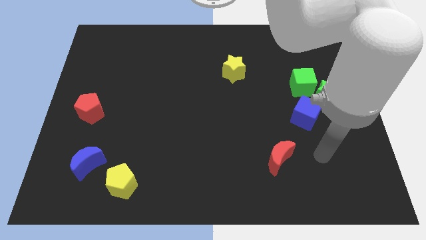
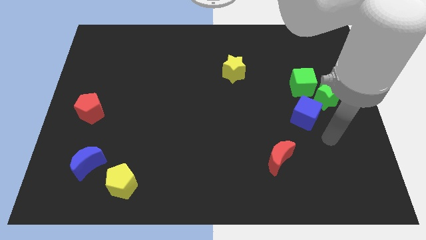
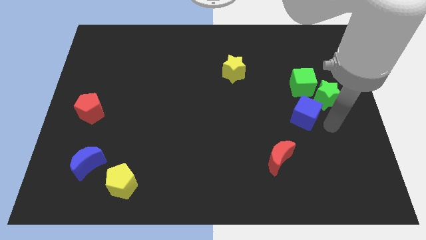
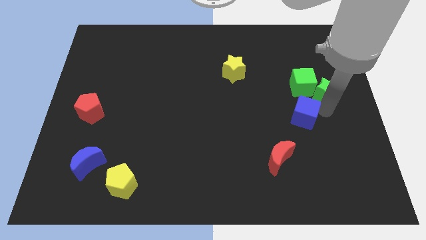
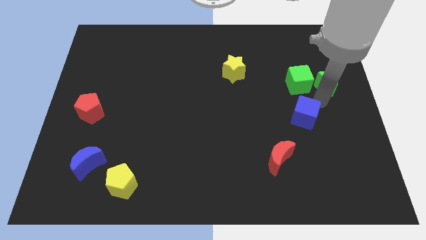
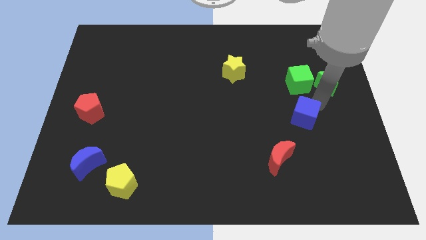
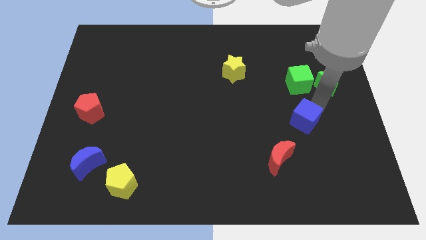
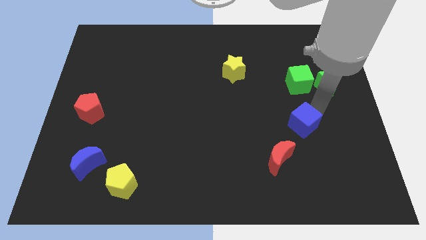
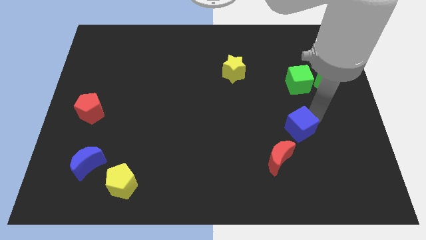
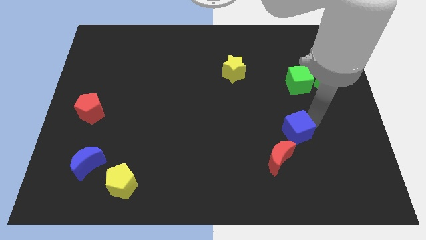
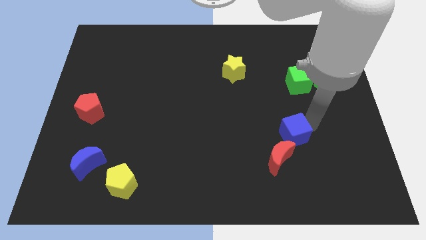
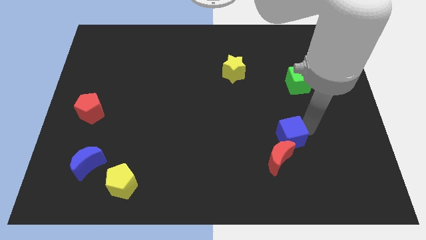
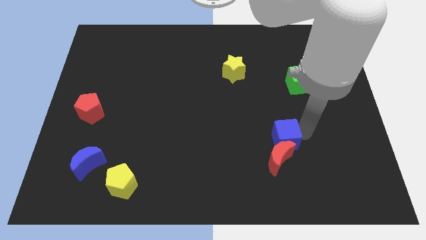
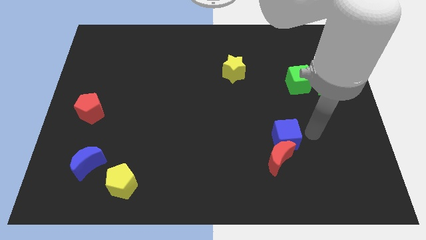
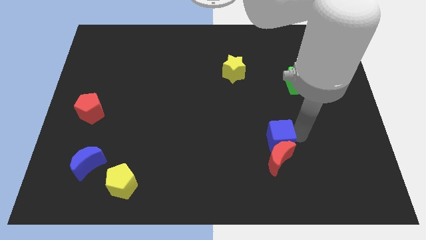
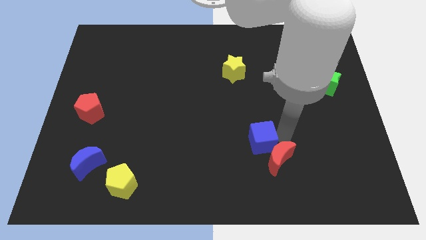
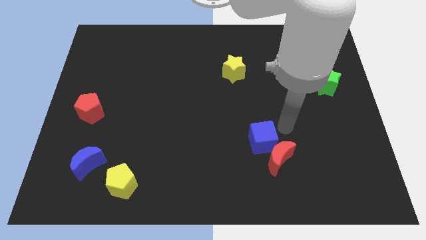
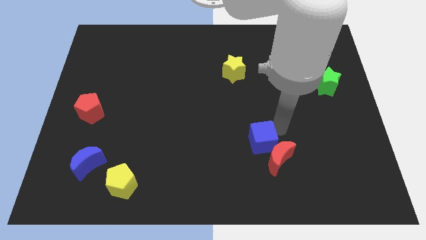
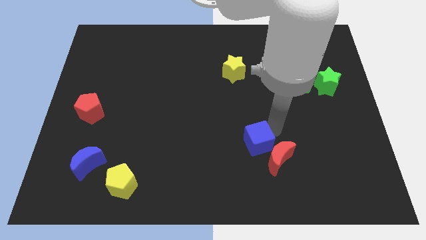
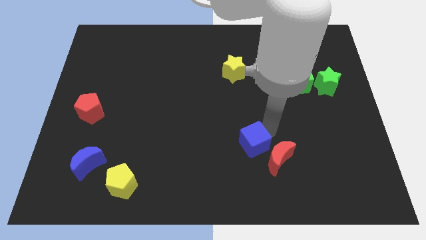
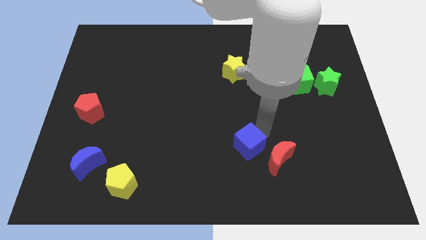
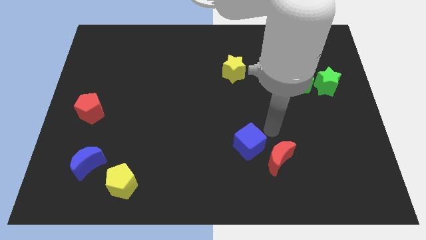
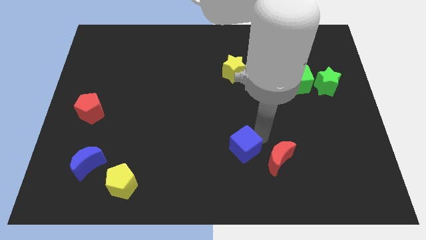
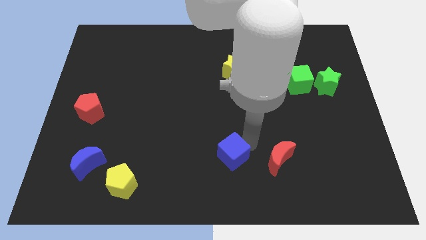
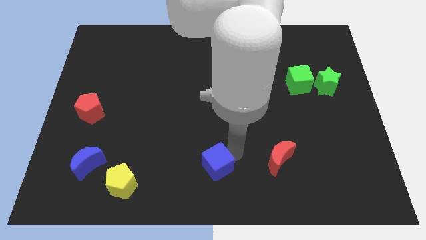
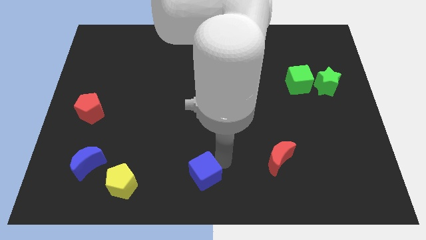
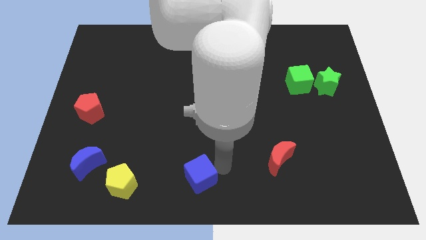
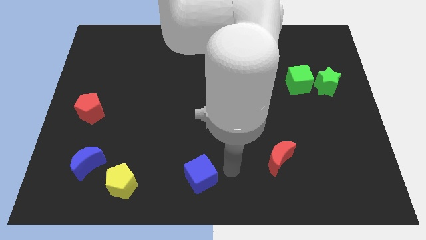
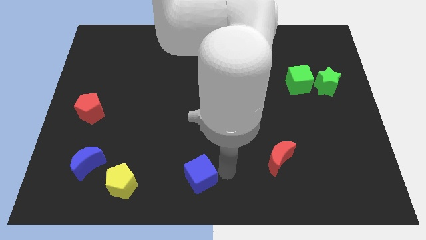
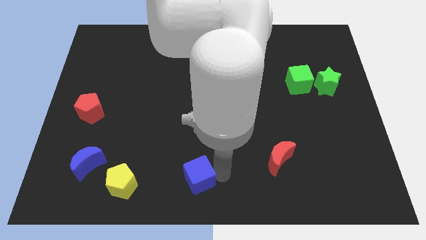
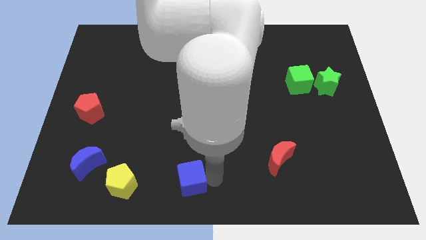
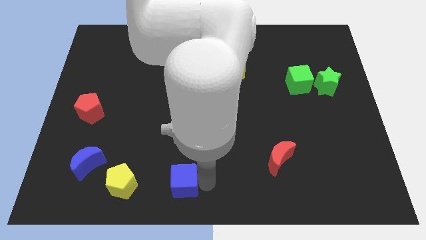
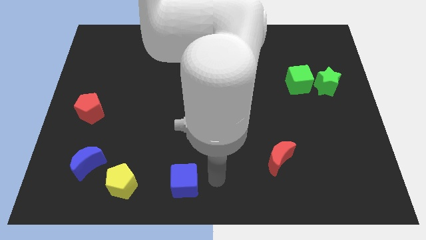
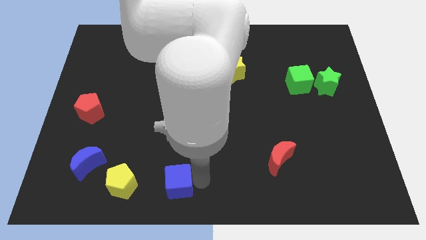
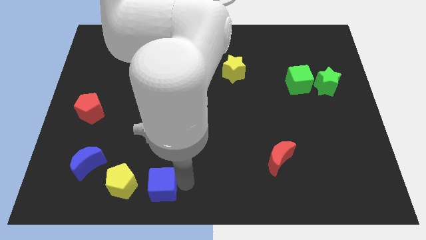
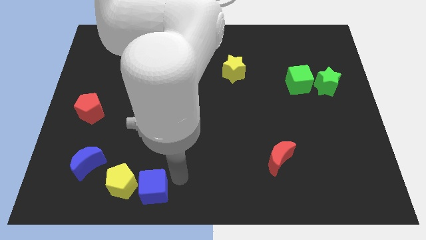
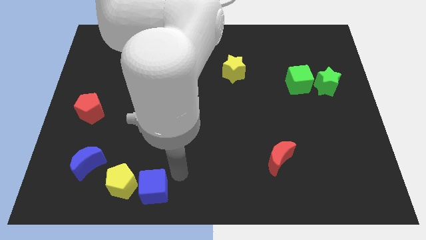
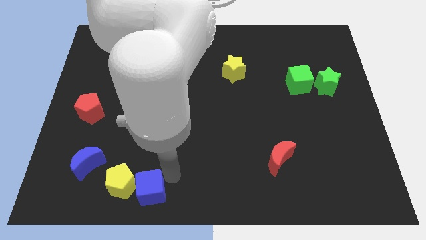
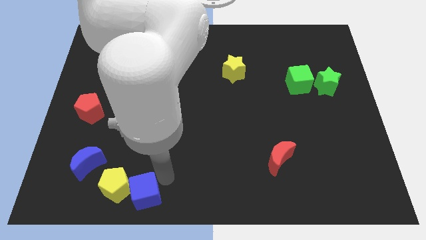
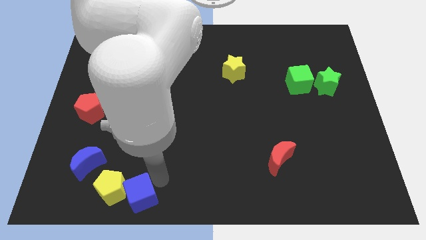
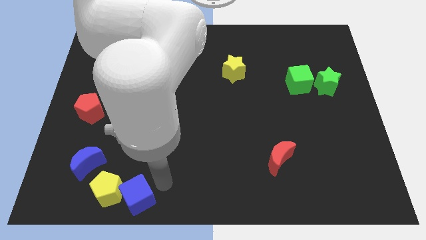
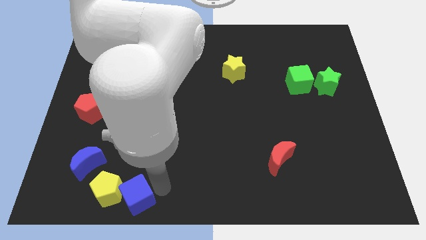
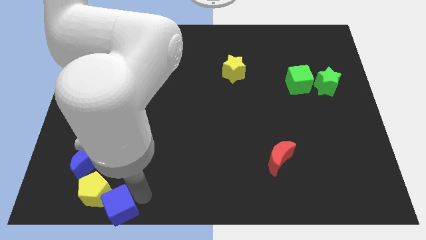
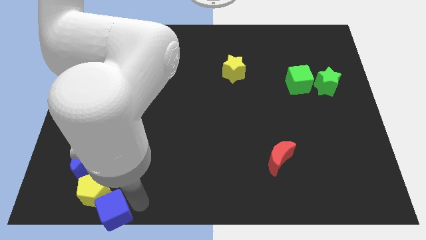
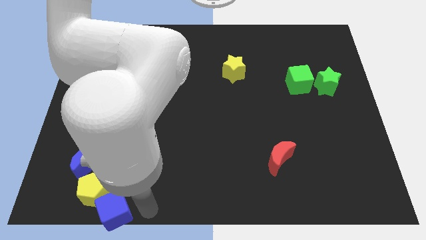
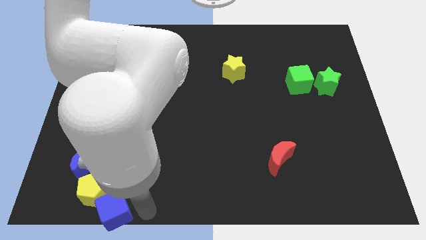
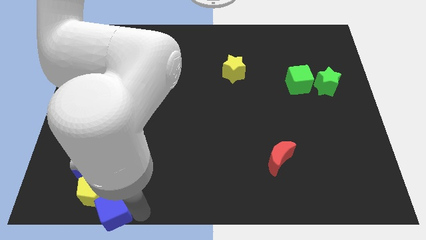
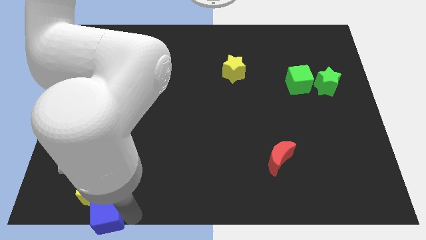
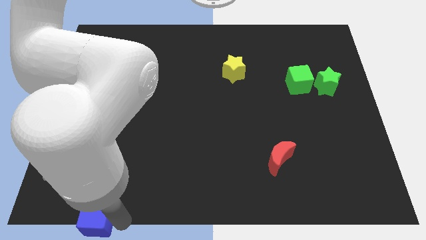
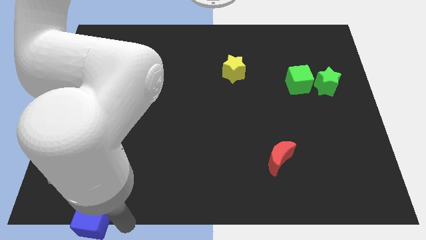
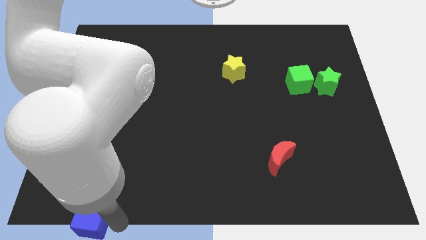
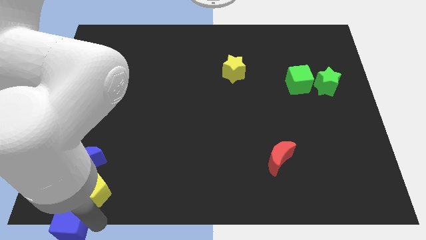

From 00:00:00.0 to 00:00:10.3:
push the blue cube to the bottom left corner

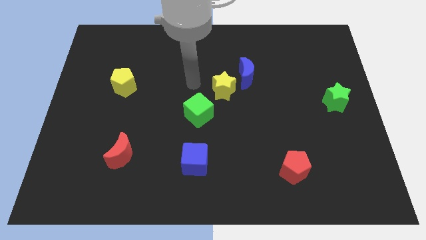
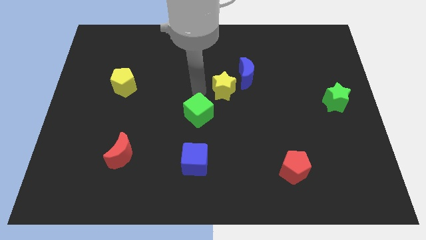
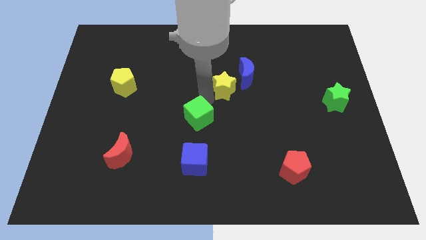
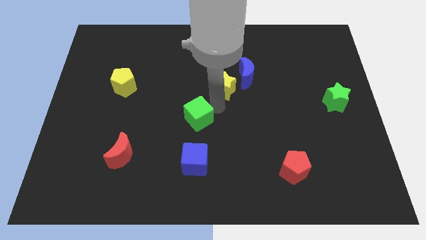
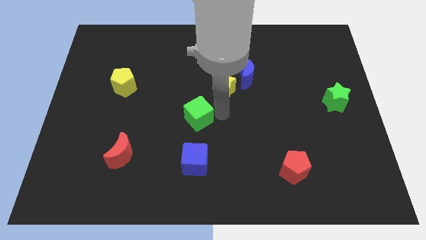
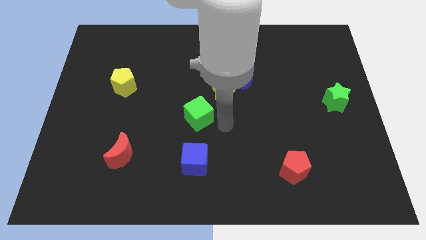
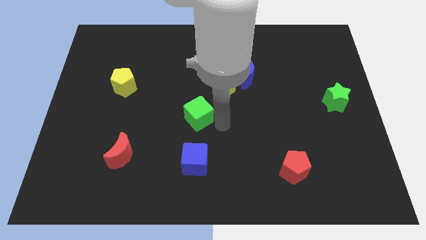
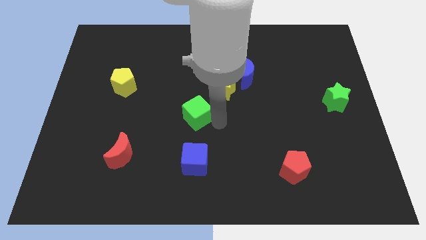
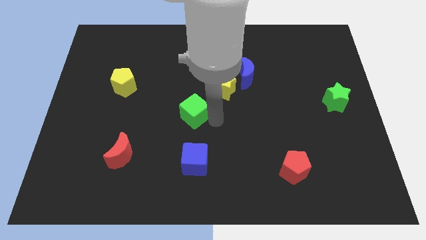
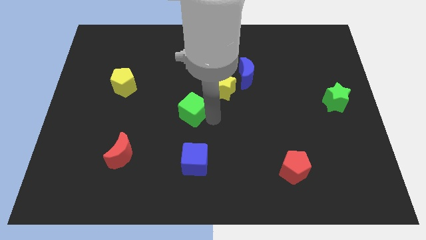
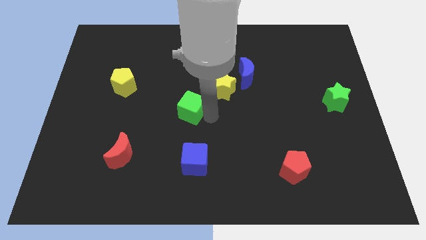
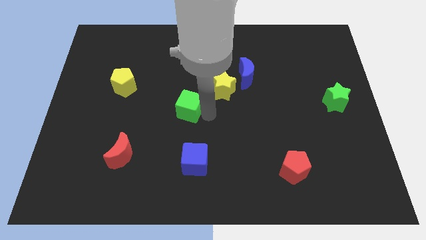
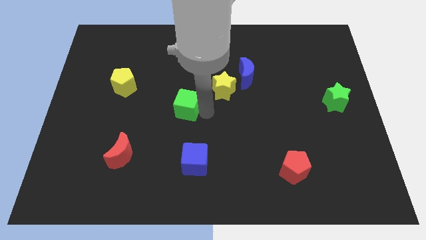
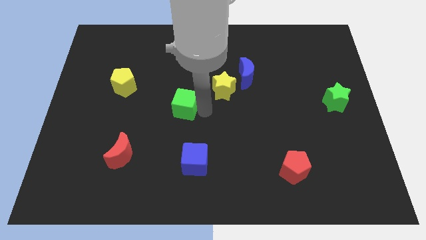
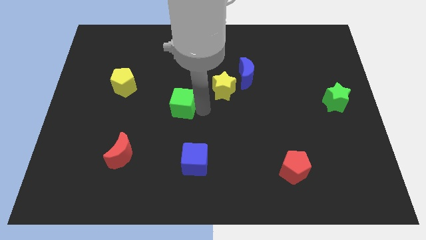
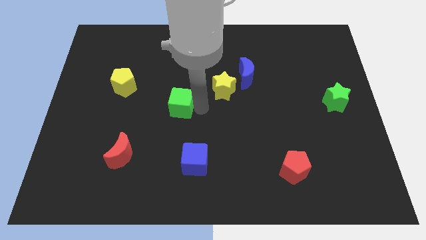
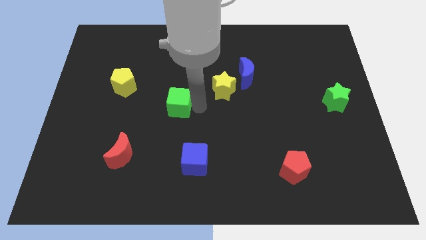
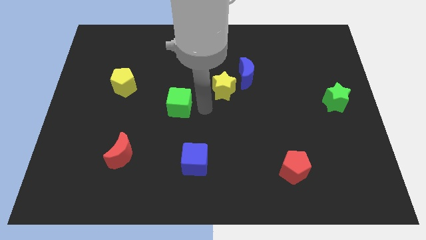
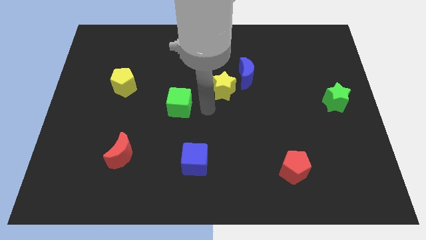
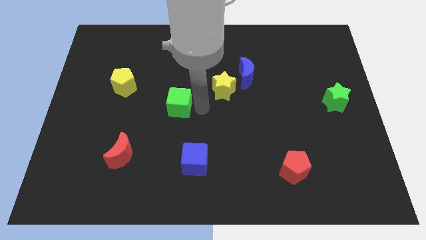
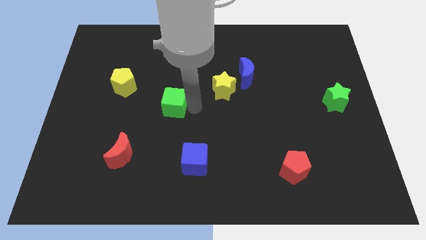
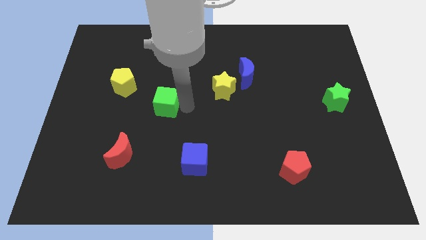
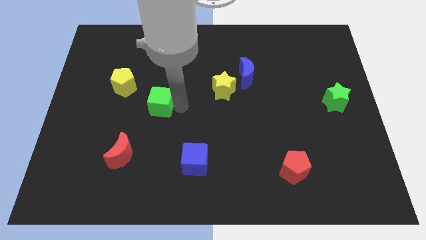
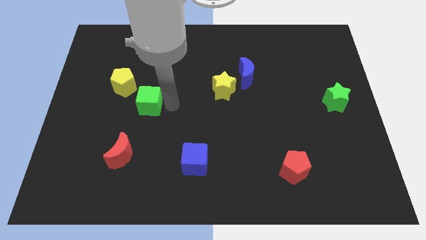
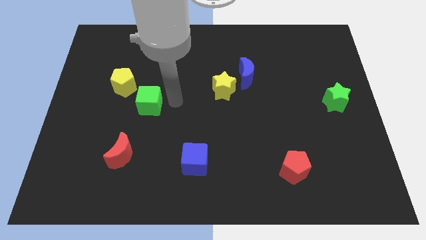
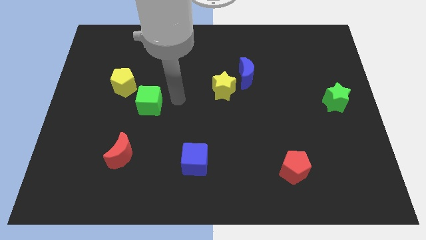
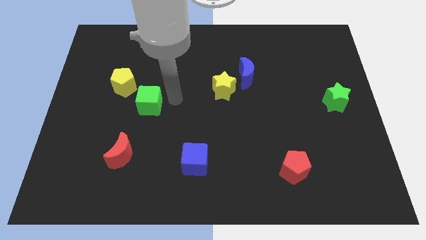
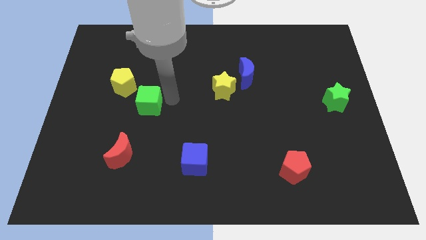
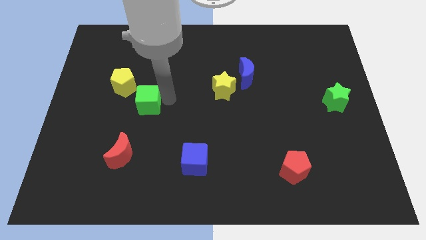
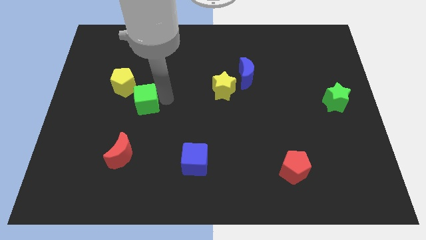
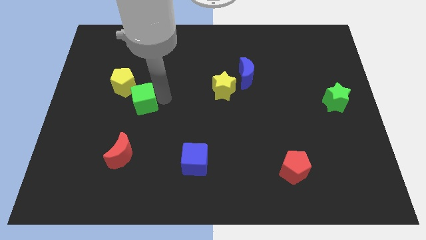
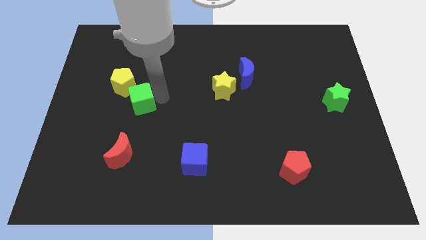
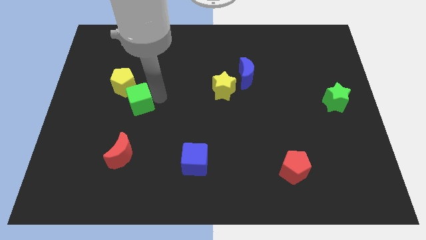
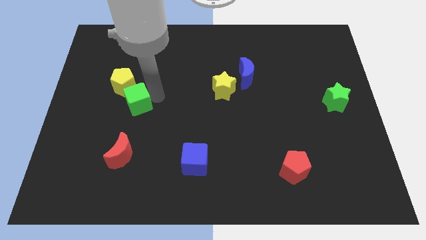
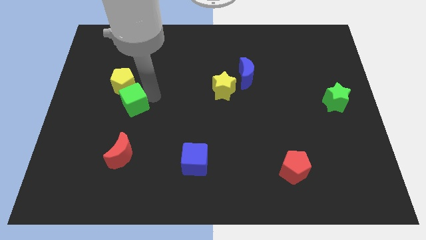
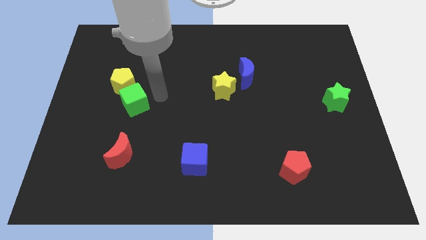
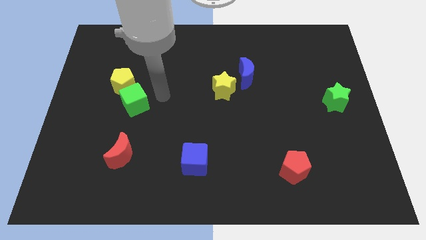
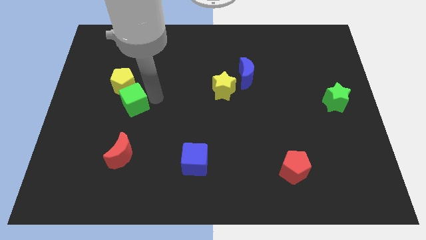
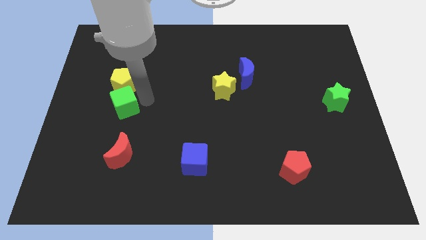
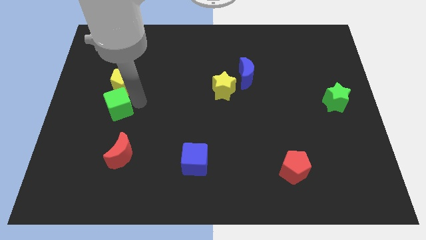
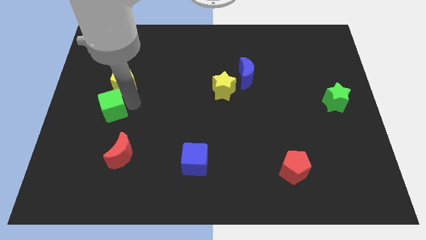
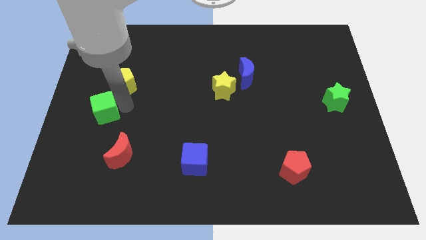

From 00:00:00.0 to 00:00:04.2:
move the green cube to the left side
